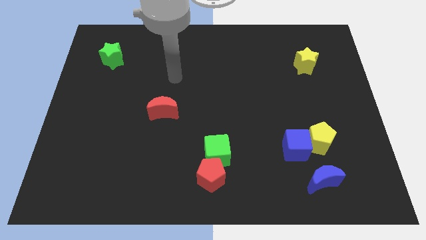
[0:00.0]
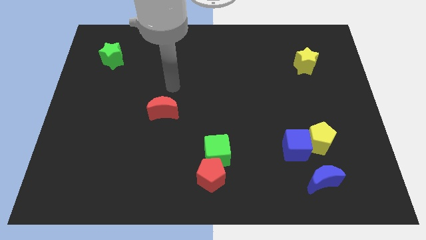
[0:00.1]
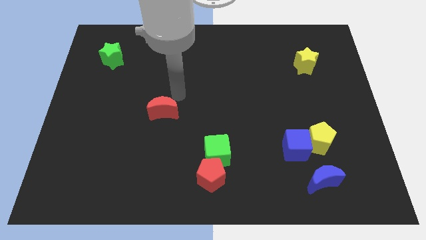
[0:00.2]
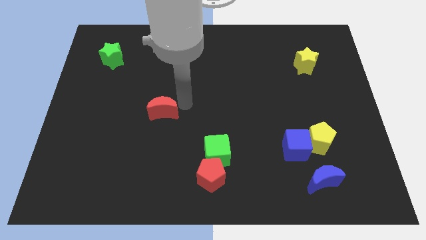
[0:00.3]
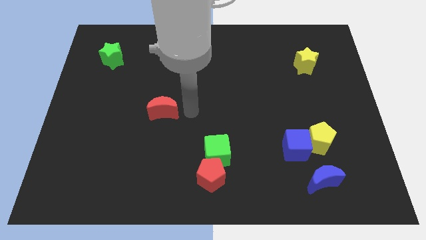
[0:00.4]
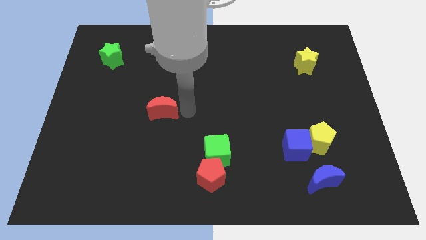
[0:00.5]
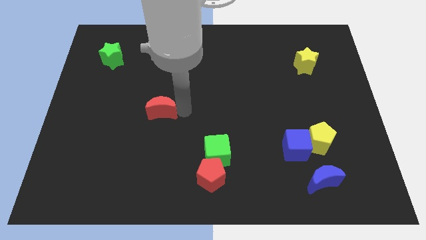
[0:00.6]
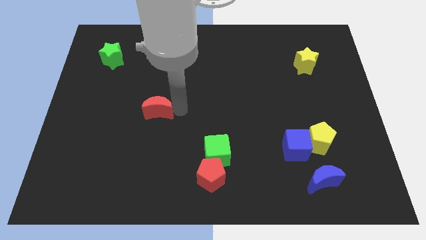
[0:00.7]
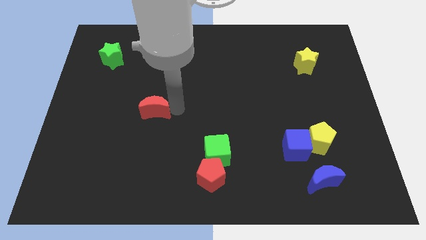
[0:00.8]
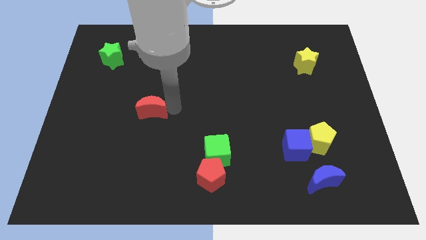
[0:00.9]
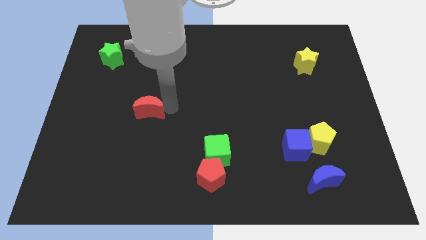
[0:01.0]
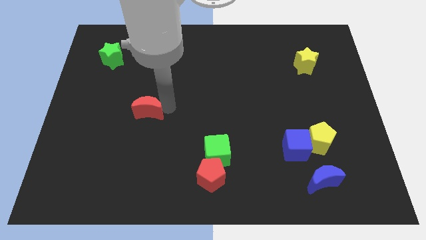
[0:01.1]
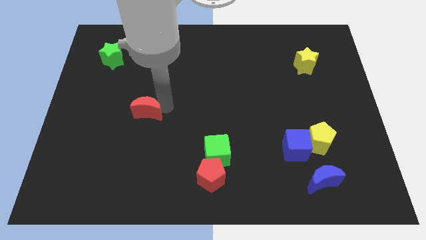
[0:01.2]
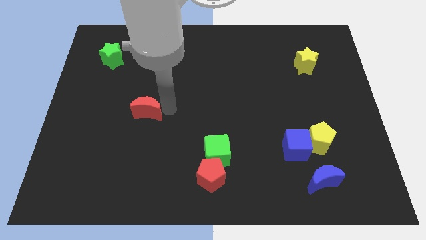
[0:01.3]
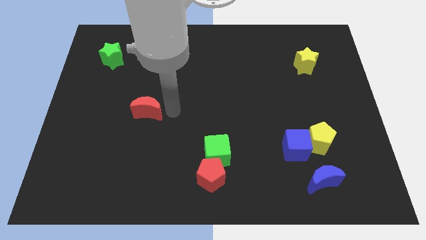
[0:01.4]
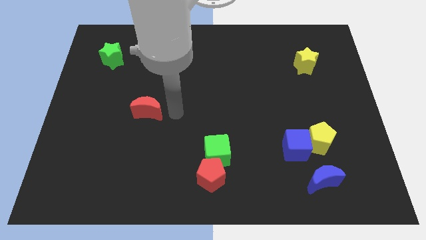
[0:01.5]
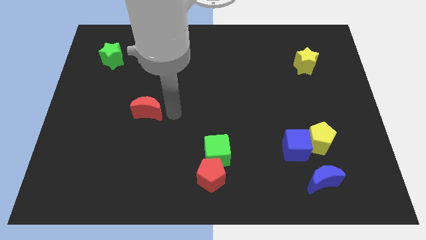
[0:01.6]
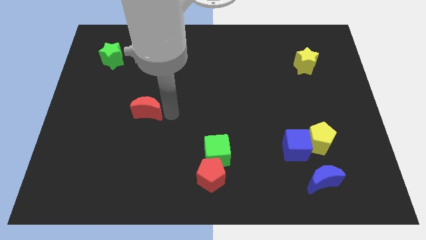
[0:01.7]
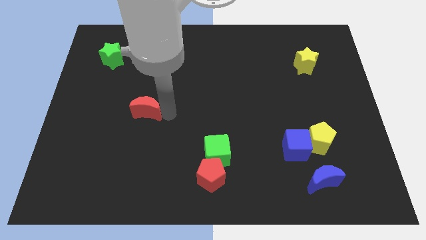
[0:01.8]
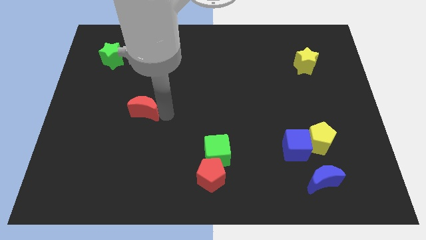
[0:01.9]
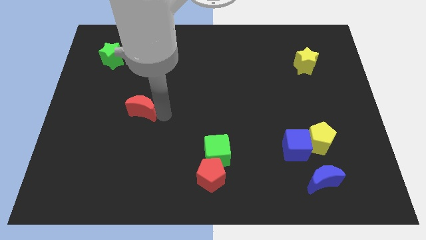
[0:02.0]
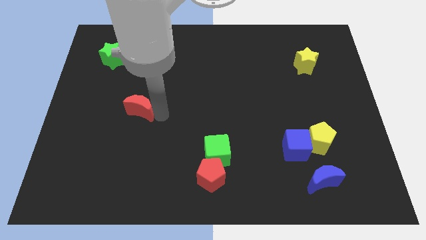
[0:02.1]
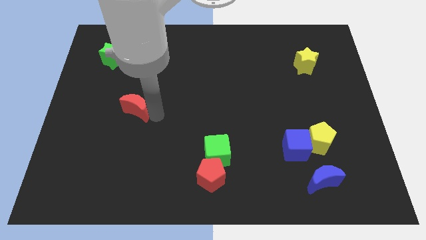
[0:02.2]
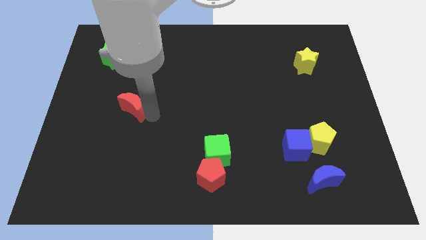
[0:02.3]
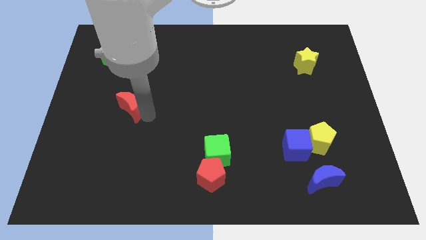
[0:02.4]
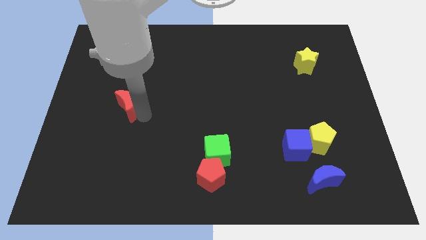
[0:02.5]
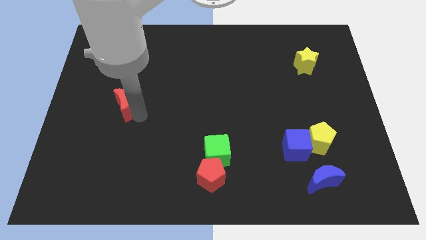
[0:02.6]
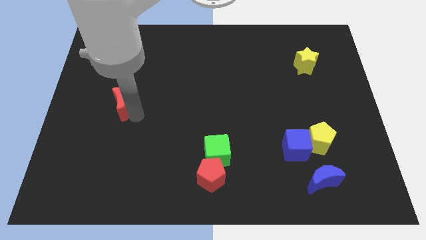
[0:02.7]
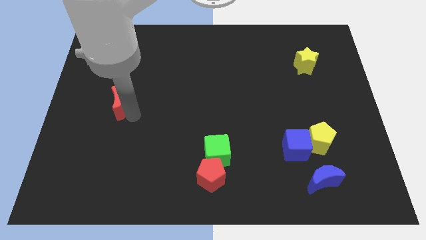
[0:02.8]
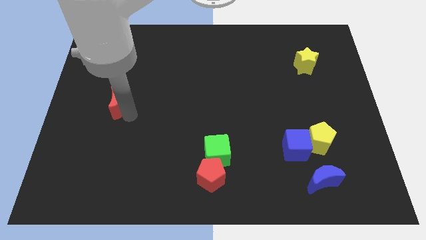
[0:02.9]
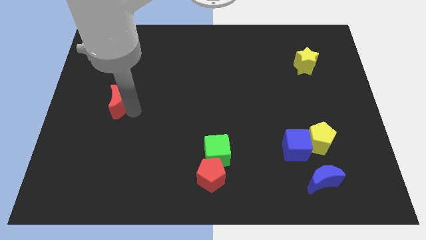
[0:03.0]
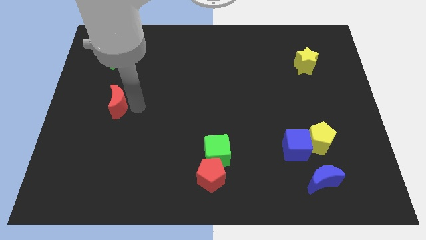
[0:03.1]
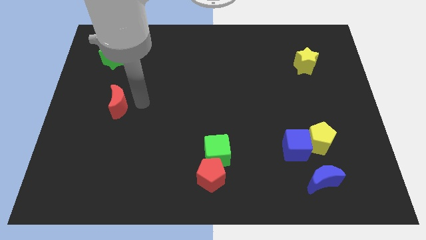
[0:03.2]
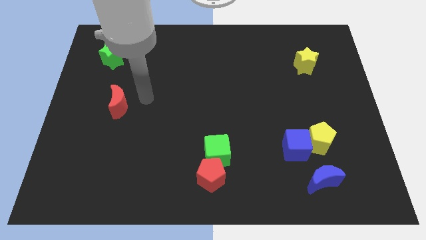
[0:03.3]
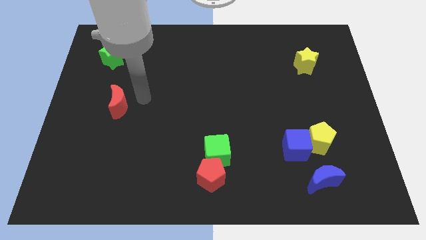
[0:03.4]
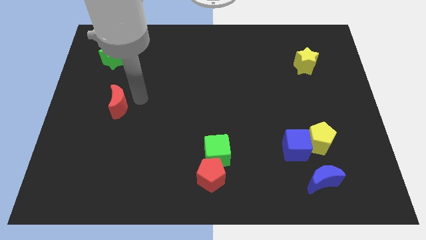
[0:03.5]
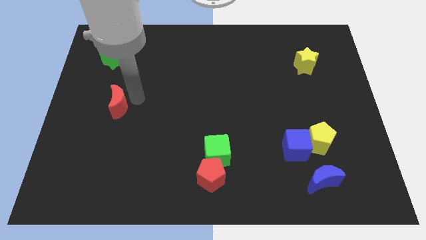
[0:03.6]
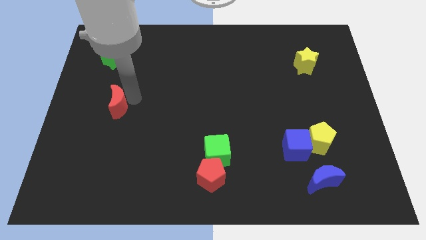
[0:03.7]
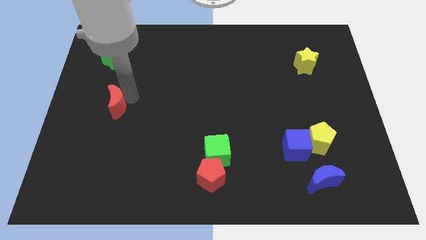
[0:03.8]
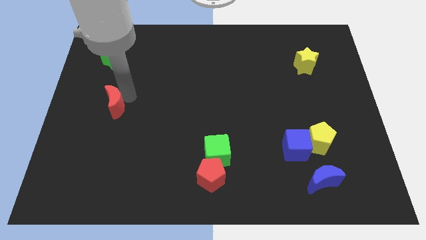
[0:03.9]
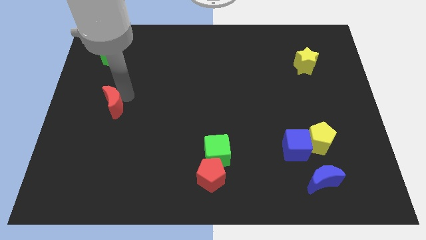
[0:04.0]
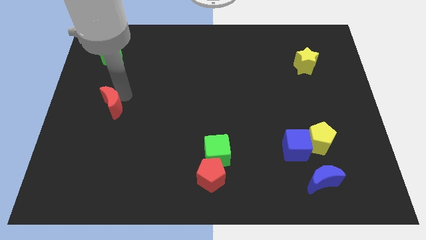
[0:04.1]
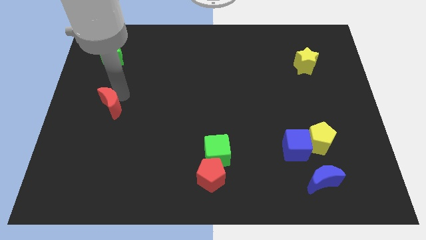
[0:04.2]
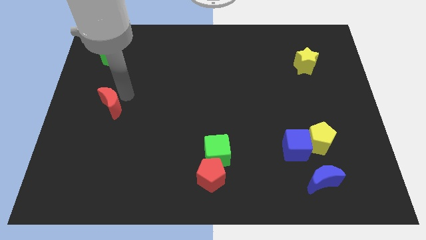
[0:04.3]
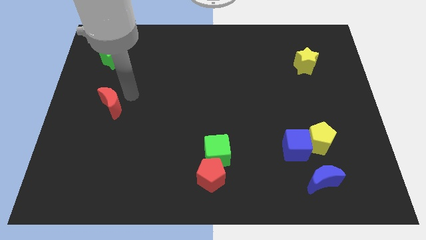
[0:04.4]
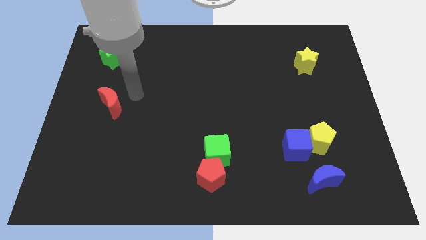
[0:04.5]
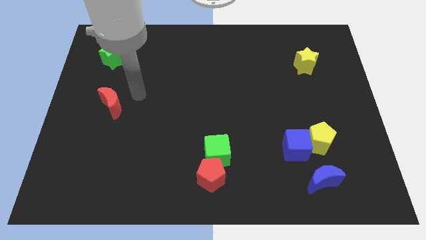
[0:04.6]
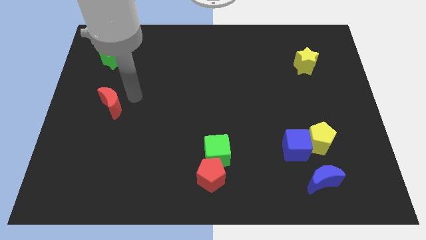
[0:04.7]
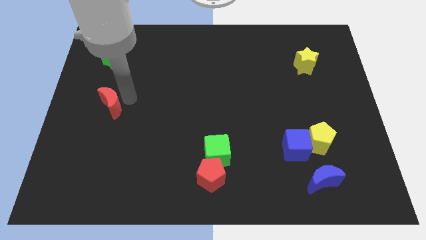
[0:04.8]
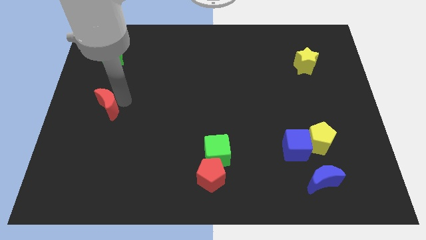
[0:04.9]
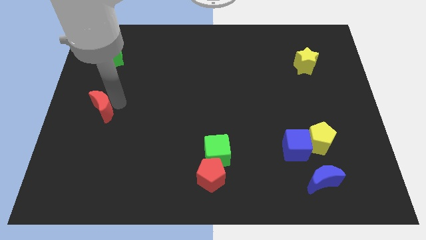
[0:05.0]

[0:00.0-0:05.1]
put the red moon to the left side

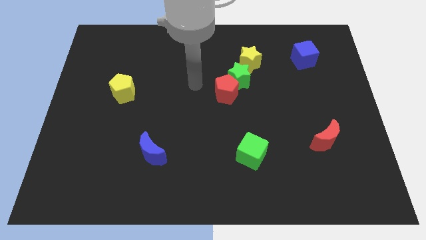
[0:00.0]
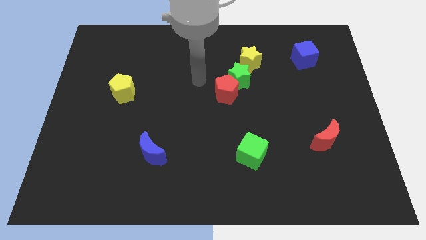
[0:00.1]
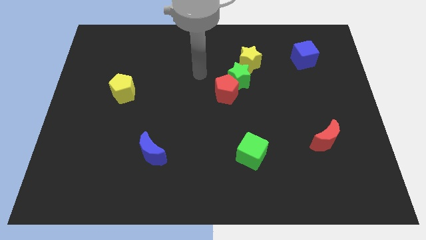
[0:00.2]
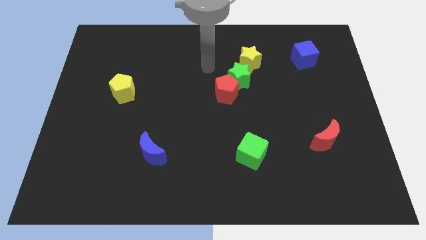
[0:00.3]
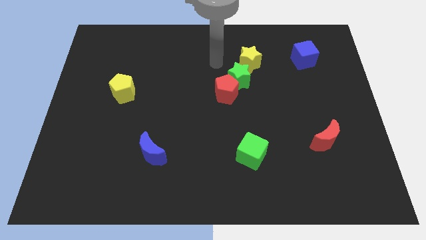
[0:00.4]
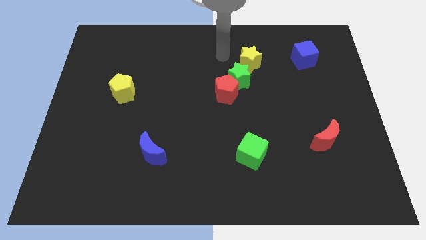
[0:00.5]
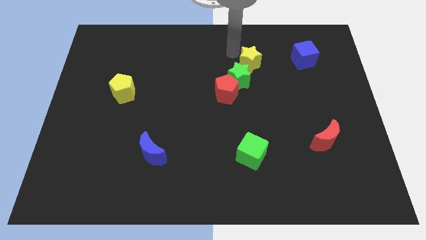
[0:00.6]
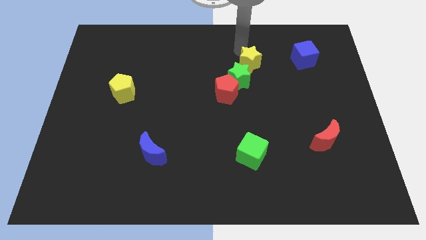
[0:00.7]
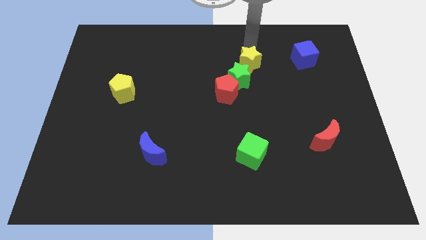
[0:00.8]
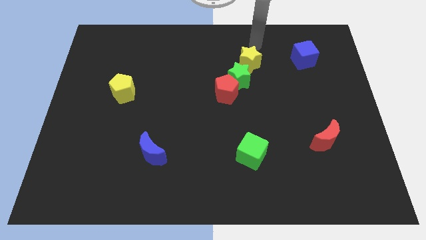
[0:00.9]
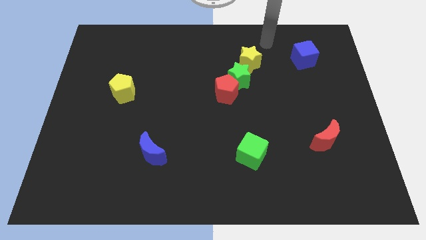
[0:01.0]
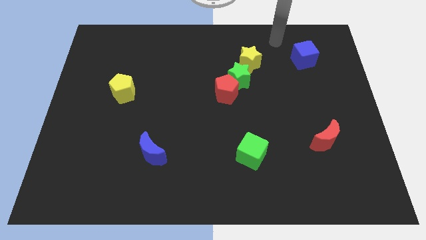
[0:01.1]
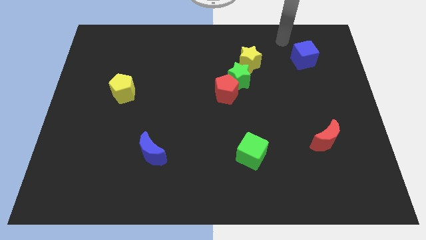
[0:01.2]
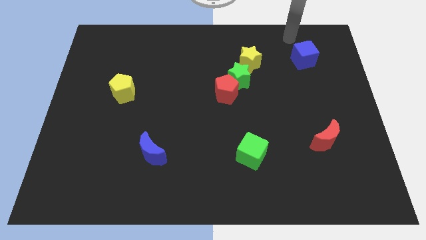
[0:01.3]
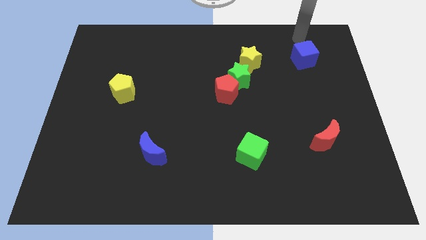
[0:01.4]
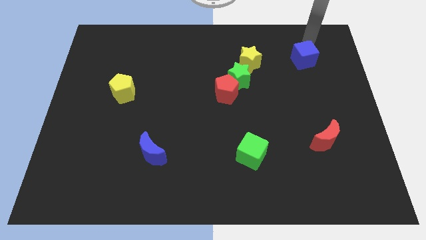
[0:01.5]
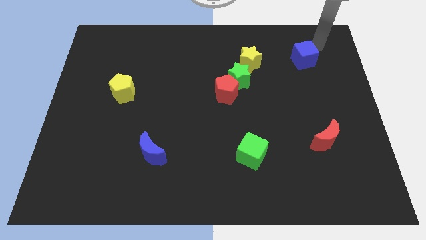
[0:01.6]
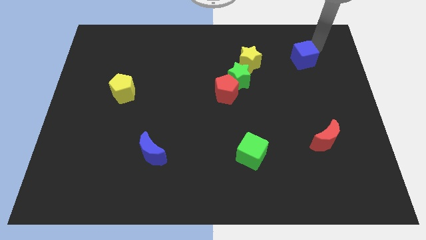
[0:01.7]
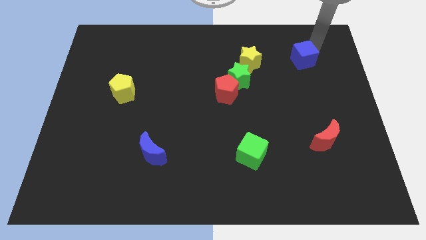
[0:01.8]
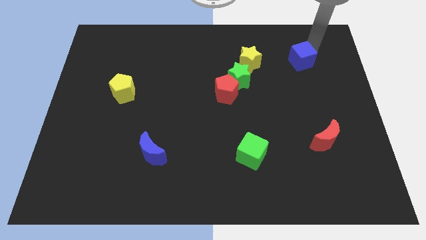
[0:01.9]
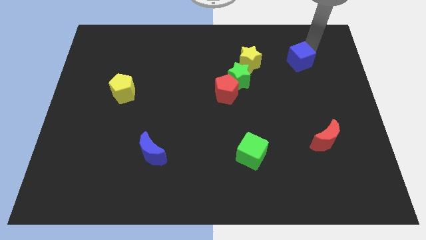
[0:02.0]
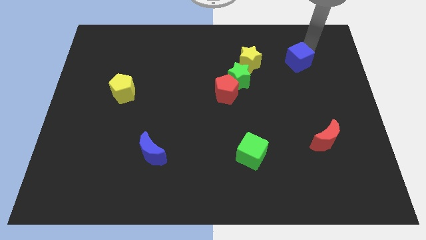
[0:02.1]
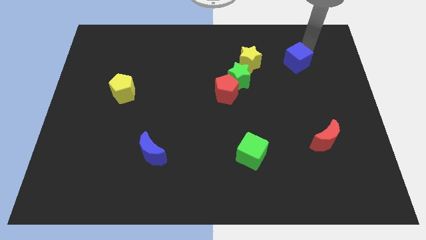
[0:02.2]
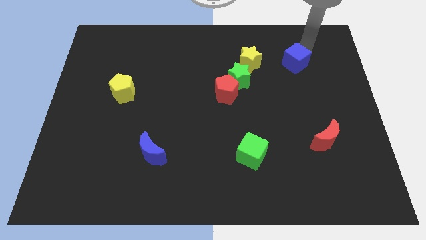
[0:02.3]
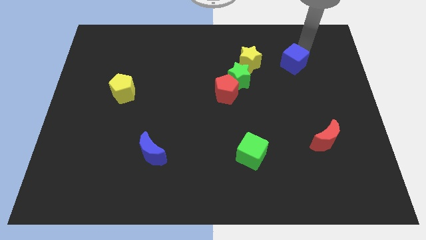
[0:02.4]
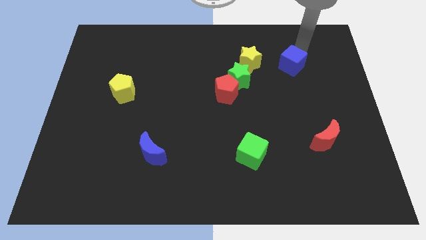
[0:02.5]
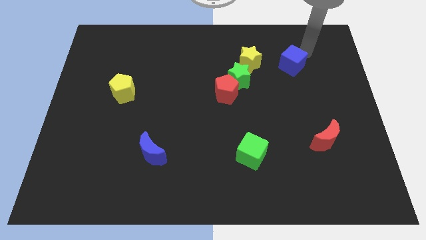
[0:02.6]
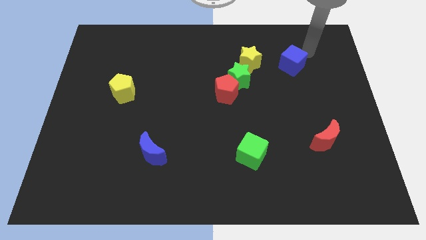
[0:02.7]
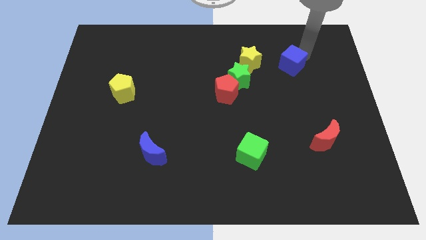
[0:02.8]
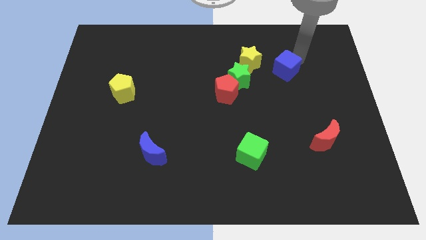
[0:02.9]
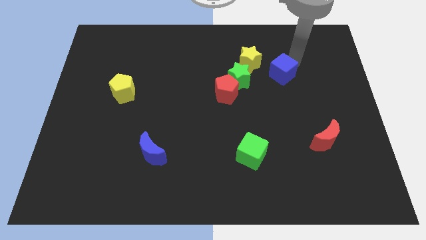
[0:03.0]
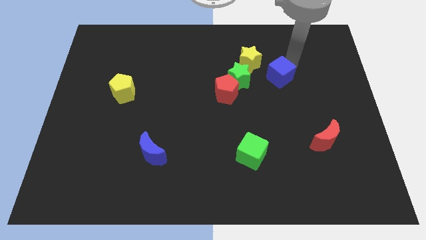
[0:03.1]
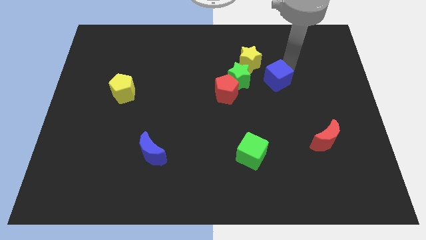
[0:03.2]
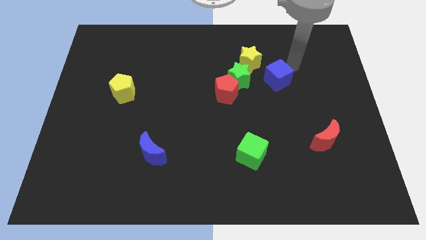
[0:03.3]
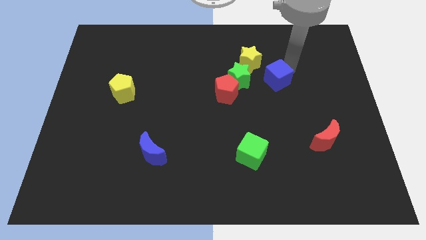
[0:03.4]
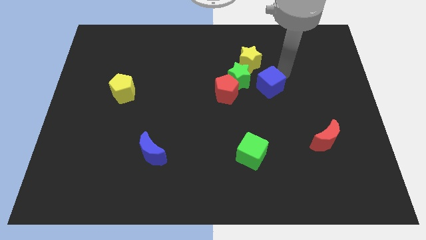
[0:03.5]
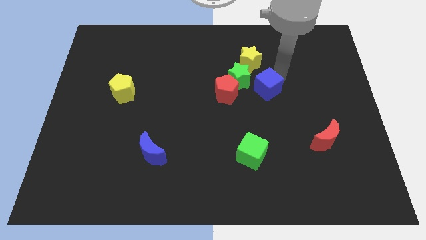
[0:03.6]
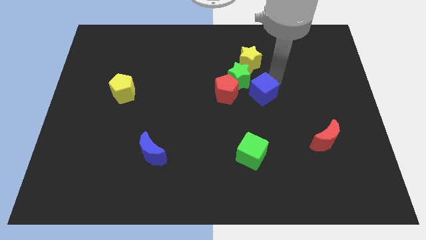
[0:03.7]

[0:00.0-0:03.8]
put the blue cube to the middle of the board
